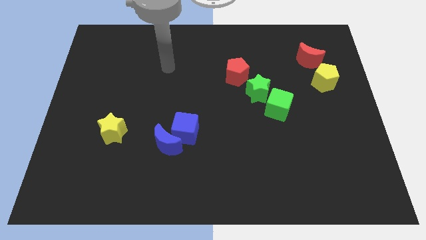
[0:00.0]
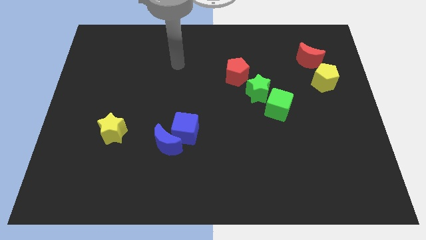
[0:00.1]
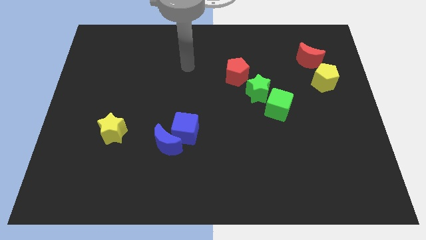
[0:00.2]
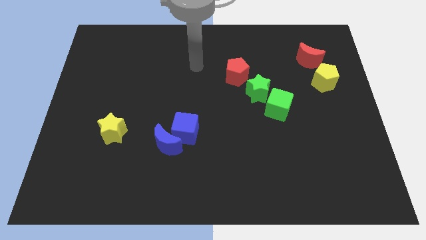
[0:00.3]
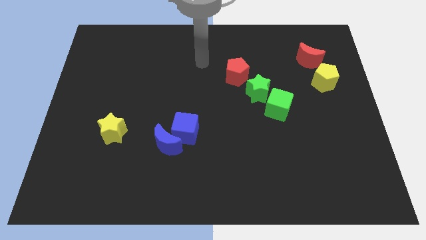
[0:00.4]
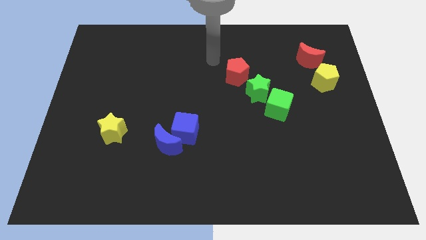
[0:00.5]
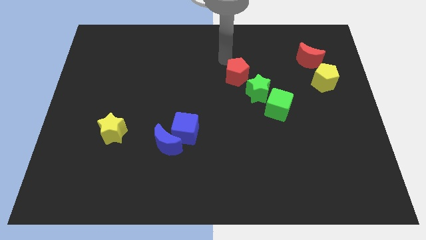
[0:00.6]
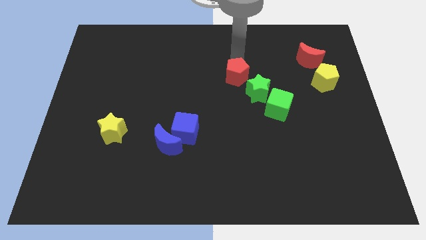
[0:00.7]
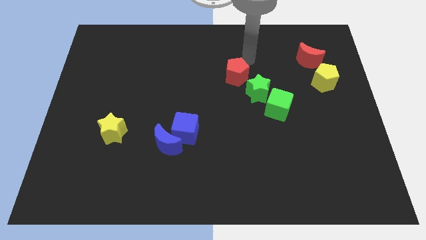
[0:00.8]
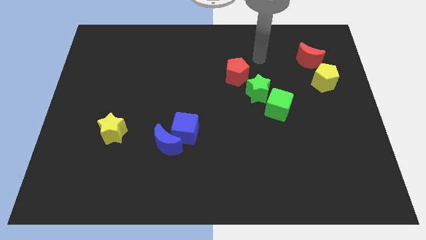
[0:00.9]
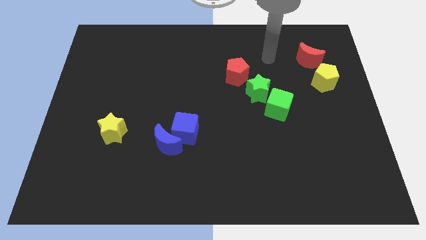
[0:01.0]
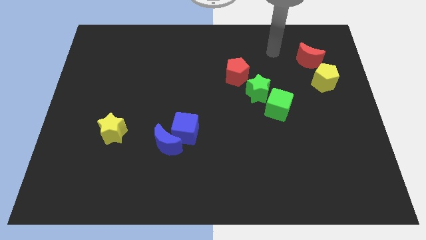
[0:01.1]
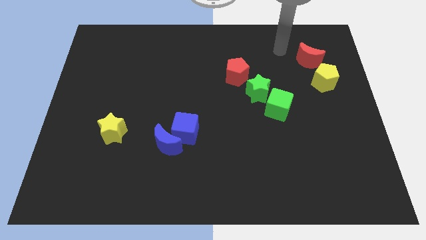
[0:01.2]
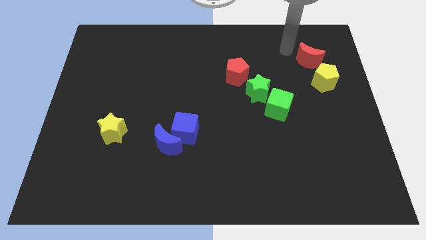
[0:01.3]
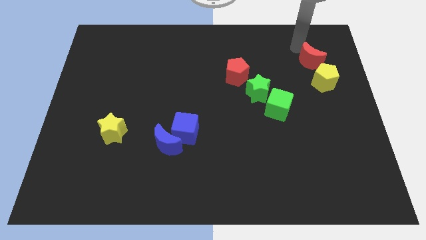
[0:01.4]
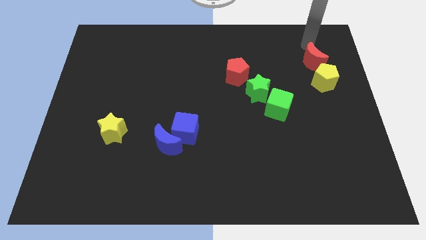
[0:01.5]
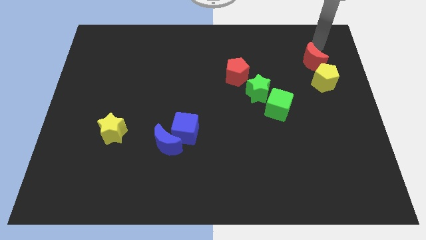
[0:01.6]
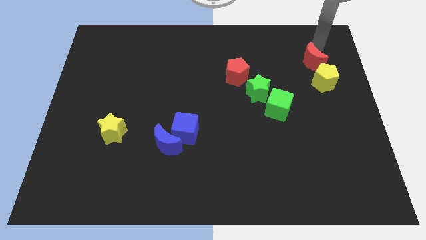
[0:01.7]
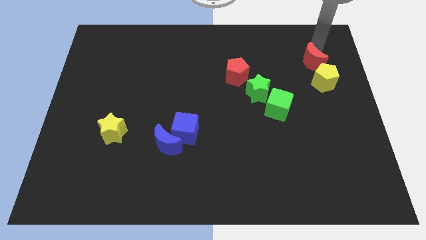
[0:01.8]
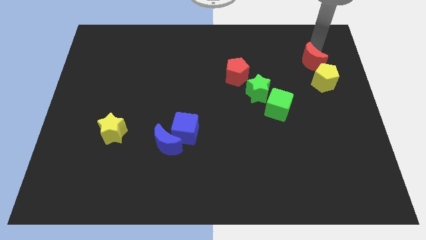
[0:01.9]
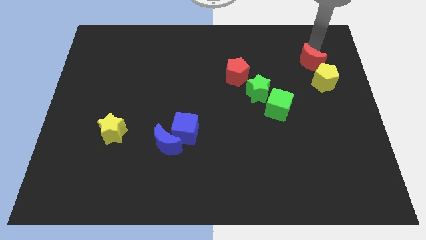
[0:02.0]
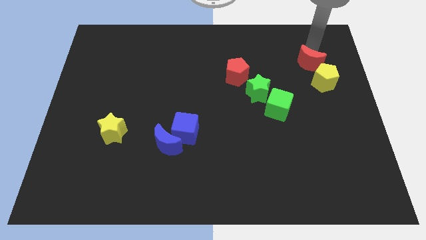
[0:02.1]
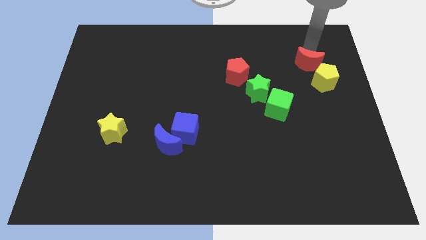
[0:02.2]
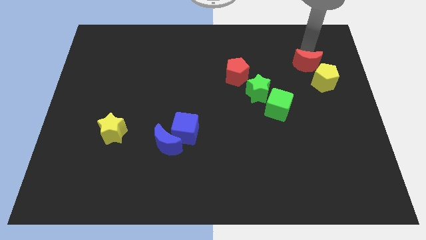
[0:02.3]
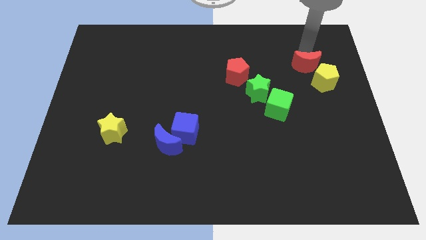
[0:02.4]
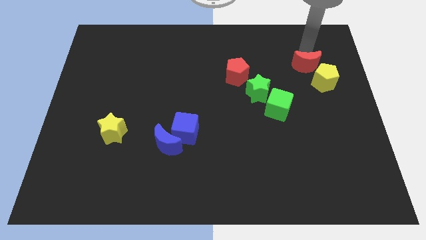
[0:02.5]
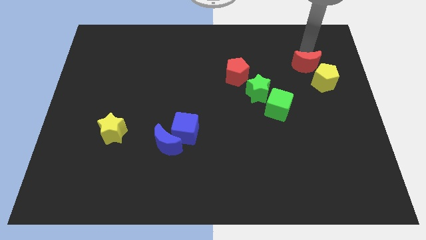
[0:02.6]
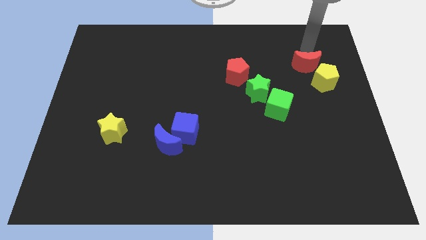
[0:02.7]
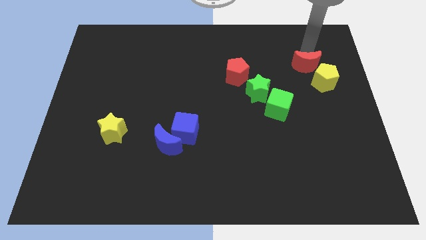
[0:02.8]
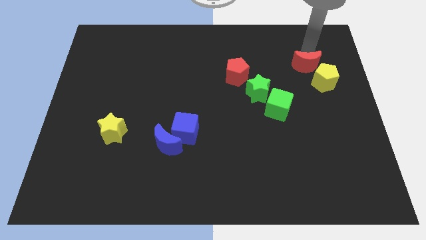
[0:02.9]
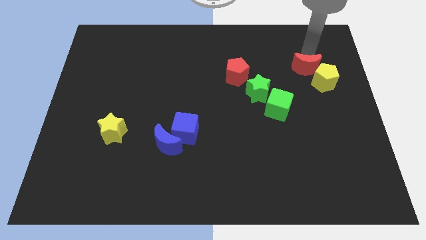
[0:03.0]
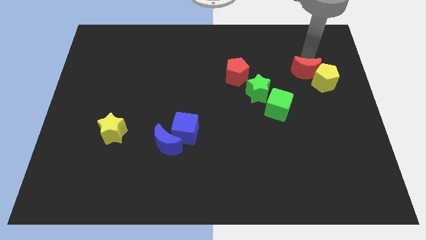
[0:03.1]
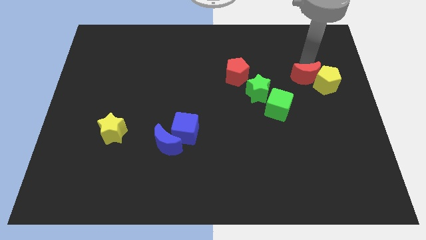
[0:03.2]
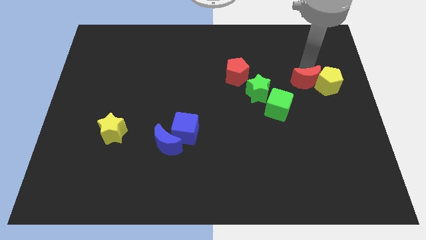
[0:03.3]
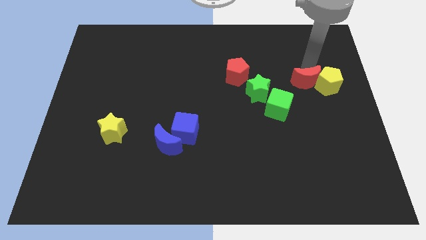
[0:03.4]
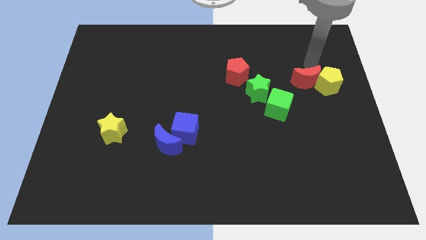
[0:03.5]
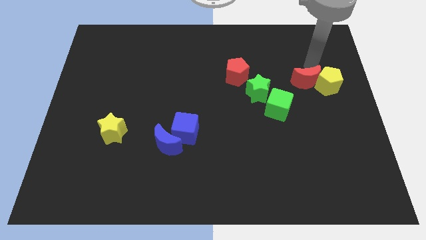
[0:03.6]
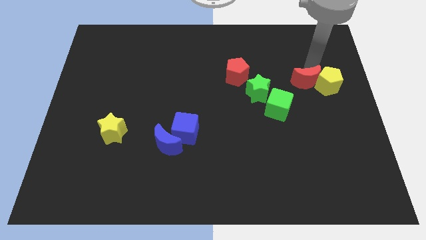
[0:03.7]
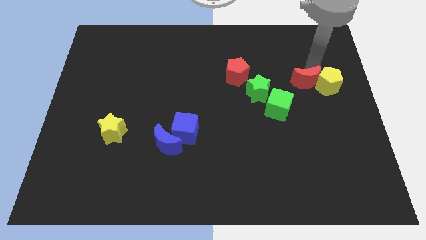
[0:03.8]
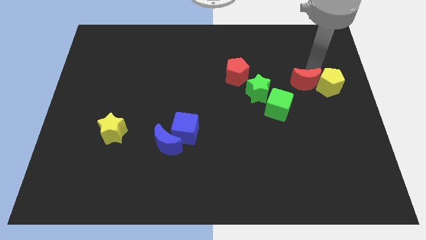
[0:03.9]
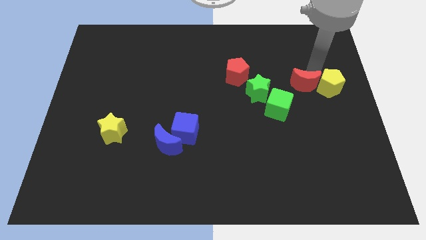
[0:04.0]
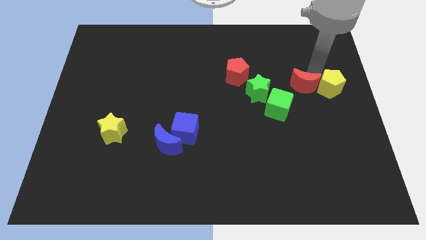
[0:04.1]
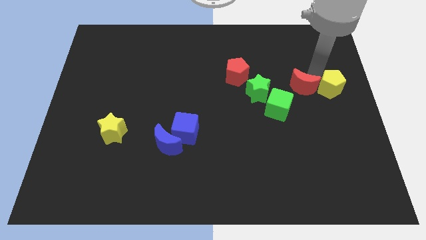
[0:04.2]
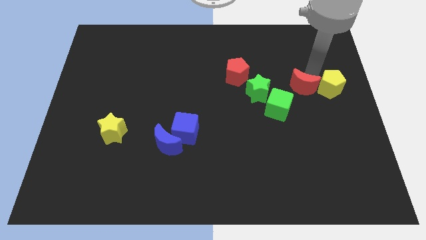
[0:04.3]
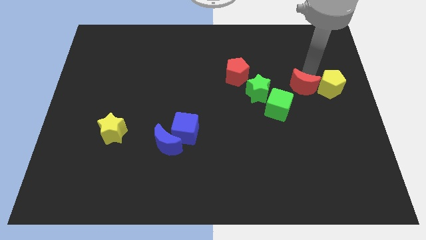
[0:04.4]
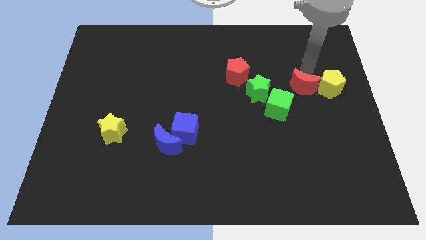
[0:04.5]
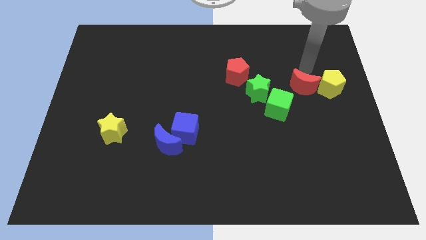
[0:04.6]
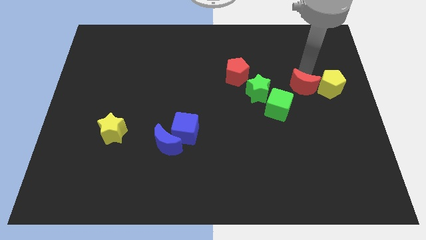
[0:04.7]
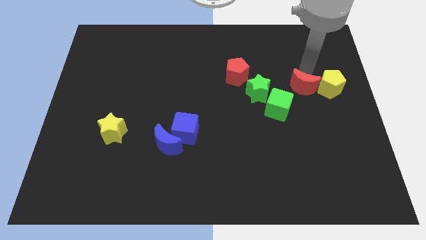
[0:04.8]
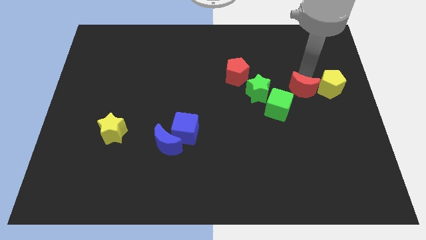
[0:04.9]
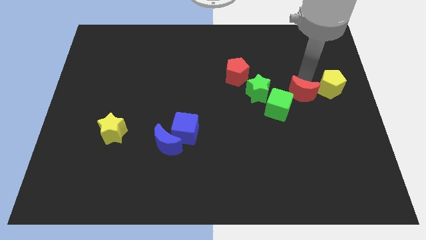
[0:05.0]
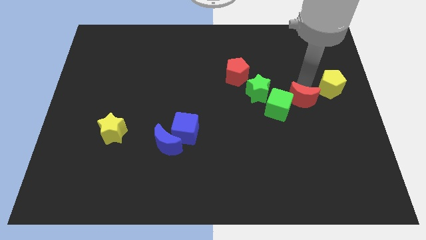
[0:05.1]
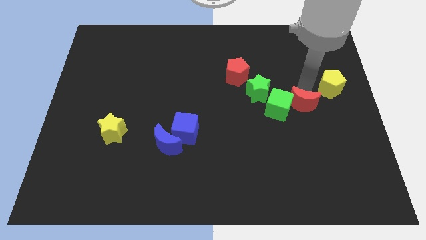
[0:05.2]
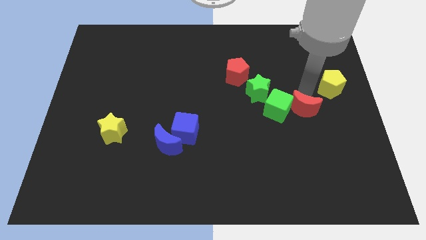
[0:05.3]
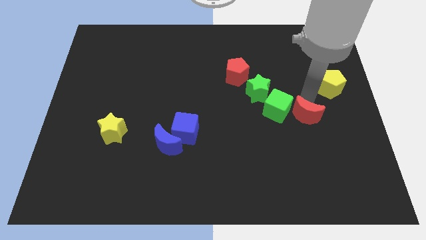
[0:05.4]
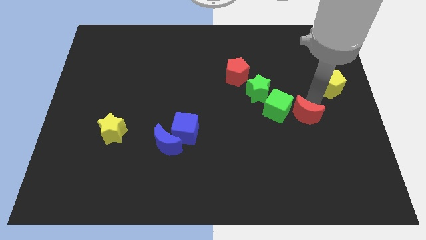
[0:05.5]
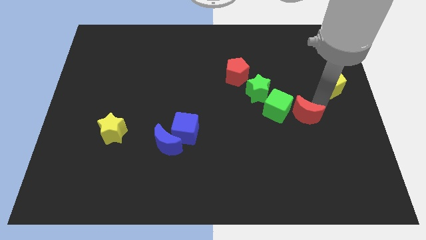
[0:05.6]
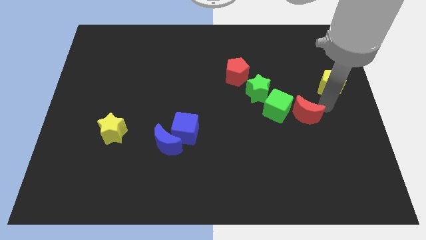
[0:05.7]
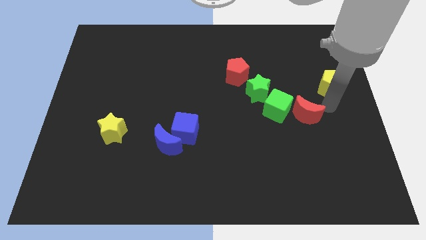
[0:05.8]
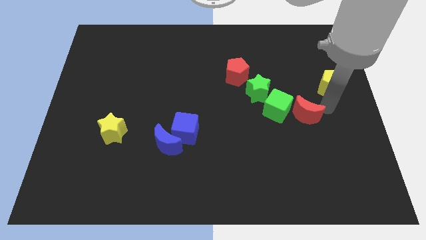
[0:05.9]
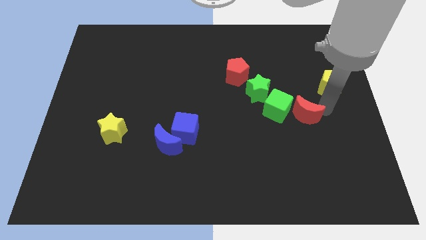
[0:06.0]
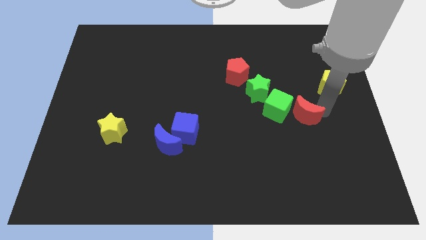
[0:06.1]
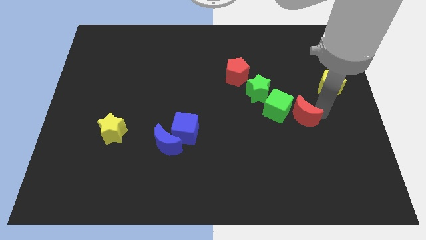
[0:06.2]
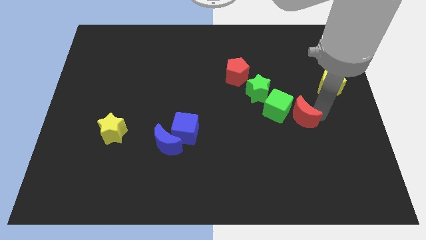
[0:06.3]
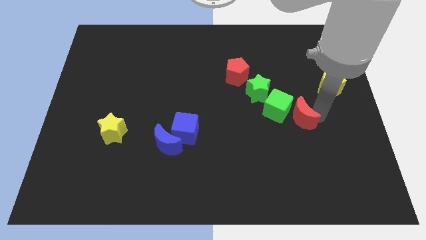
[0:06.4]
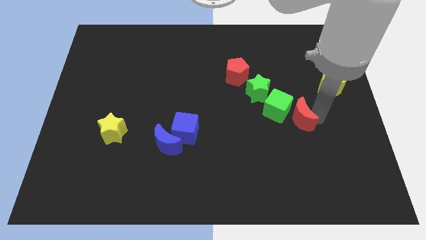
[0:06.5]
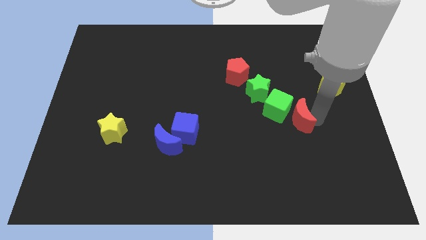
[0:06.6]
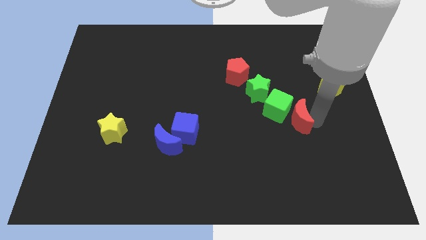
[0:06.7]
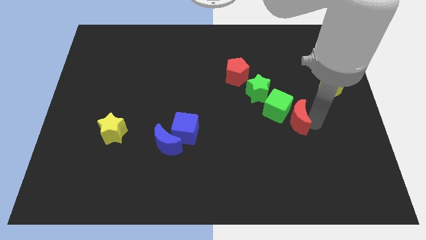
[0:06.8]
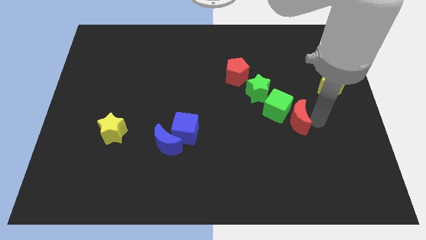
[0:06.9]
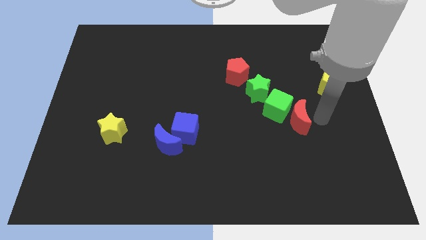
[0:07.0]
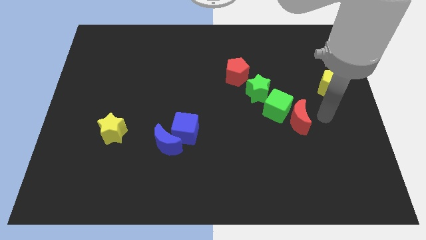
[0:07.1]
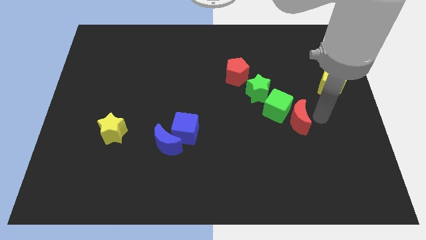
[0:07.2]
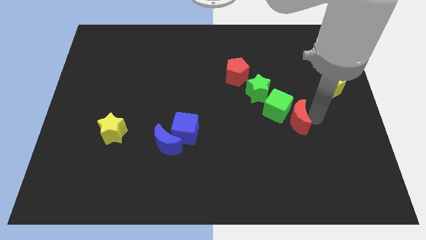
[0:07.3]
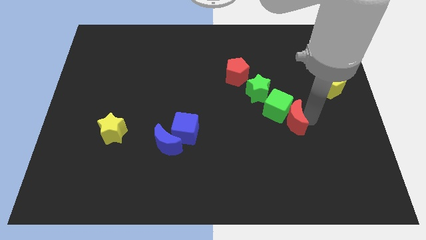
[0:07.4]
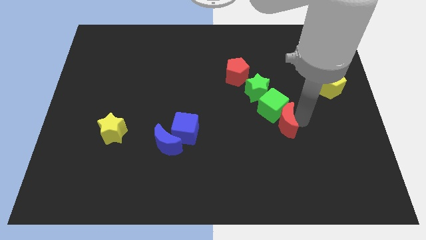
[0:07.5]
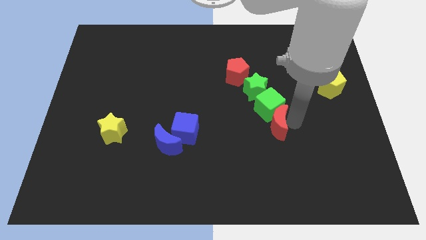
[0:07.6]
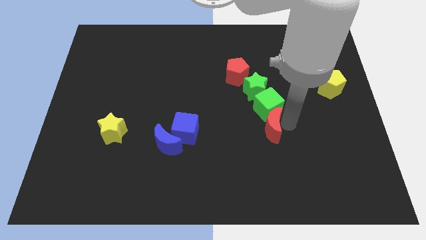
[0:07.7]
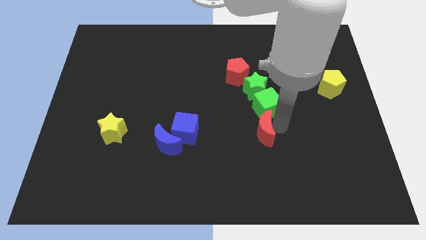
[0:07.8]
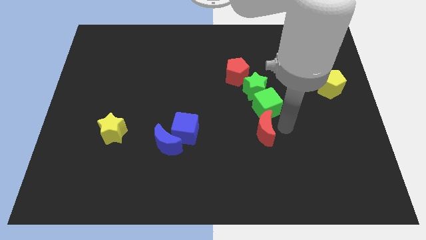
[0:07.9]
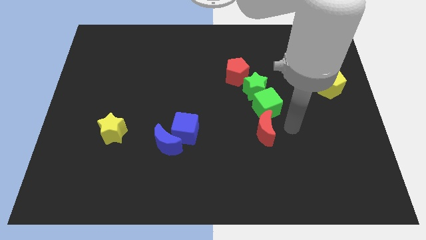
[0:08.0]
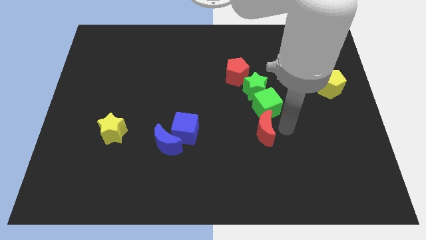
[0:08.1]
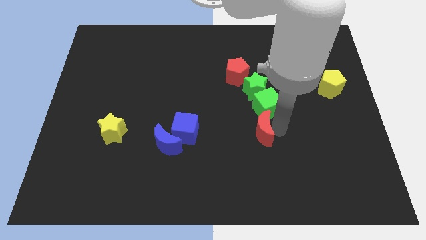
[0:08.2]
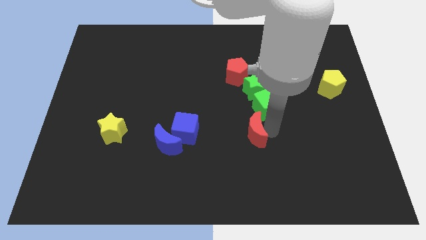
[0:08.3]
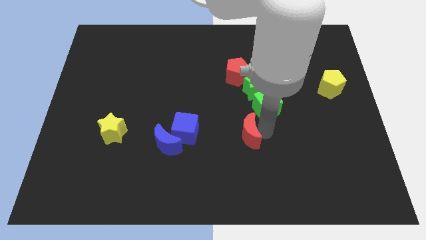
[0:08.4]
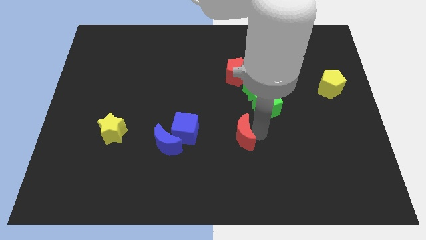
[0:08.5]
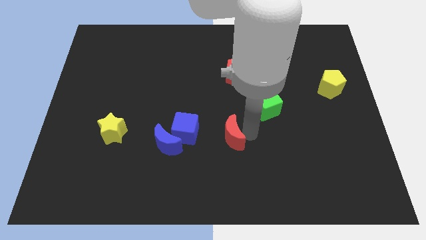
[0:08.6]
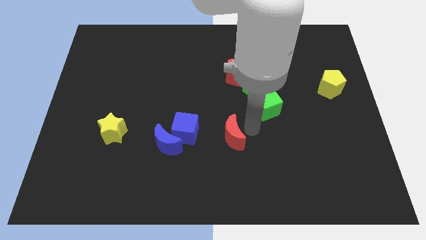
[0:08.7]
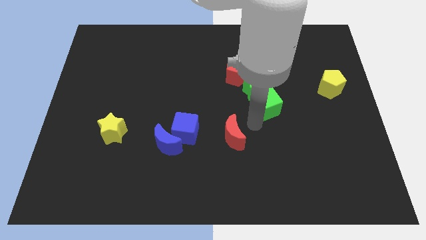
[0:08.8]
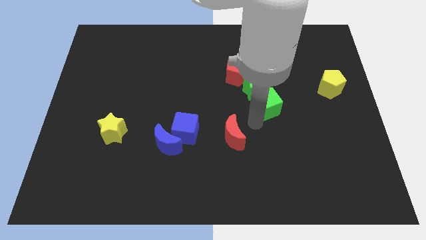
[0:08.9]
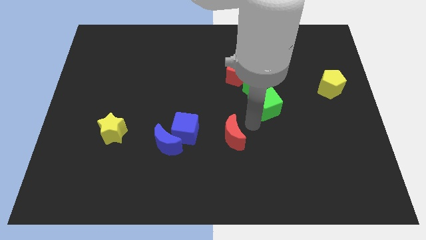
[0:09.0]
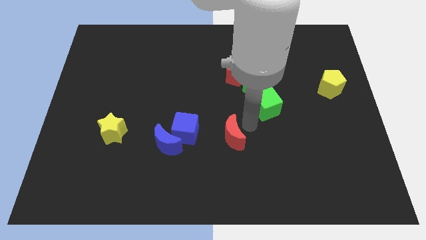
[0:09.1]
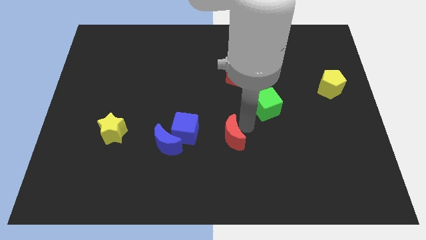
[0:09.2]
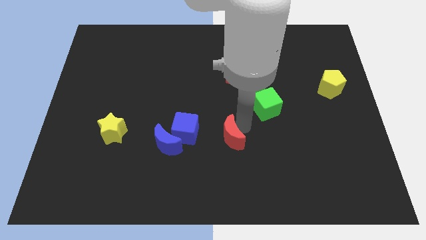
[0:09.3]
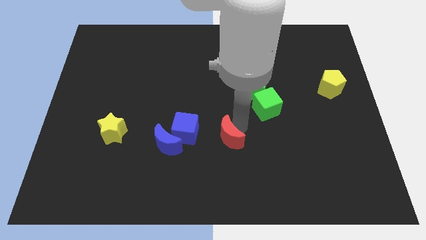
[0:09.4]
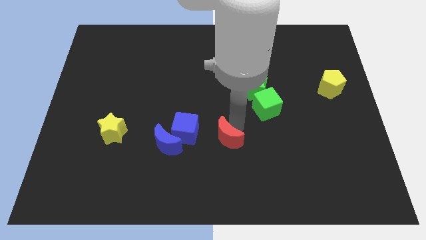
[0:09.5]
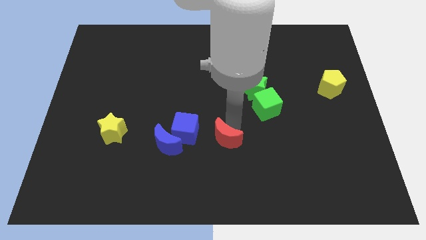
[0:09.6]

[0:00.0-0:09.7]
move the red moon to the bottom right side of the blue cube
